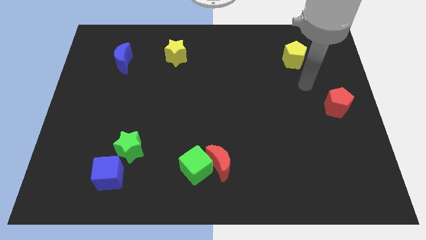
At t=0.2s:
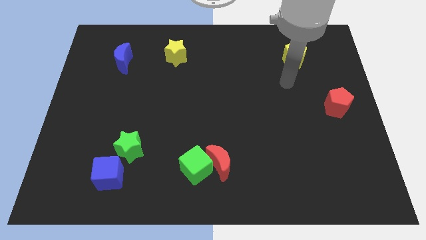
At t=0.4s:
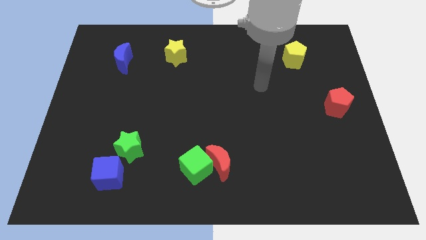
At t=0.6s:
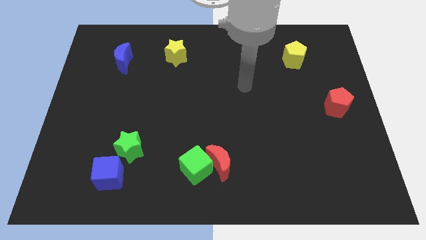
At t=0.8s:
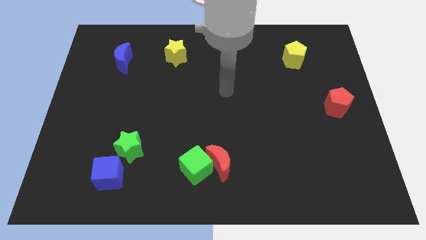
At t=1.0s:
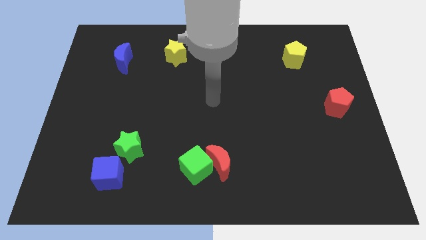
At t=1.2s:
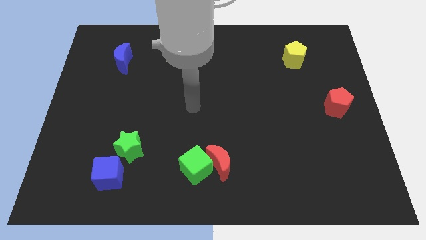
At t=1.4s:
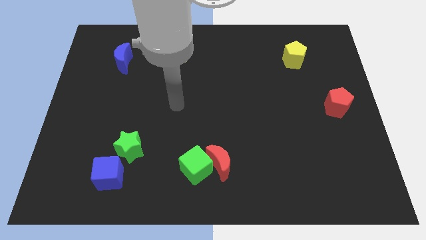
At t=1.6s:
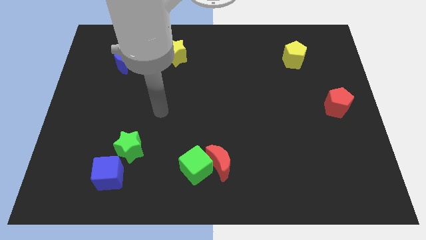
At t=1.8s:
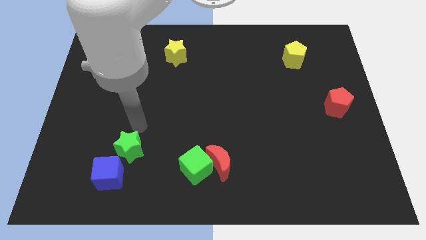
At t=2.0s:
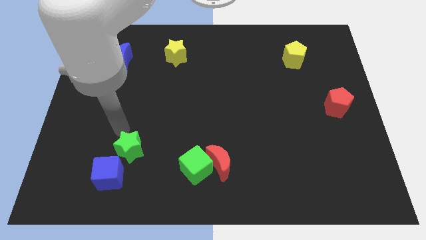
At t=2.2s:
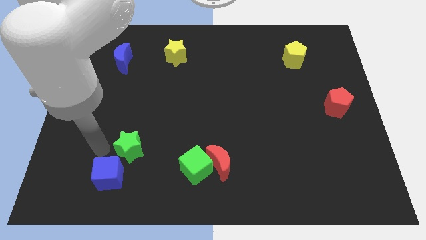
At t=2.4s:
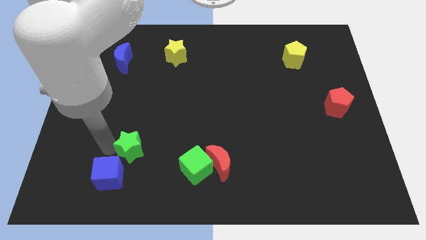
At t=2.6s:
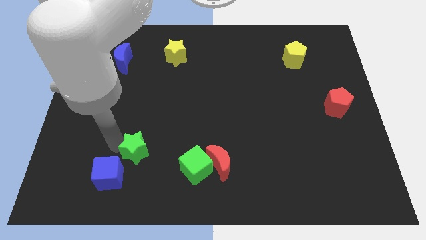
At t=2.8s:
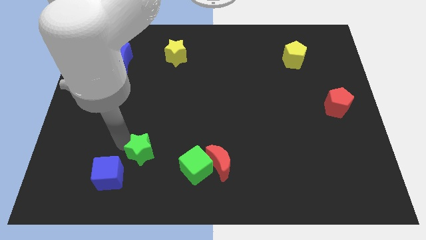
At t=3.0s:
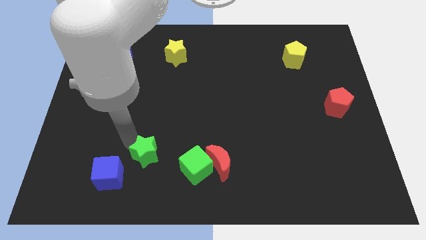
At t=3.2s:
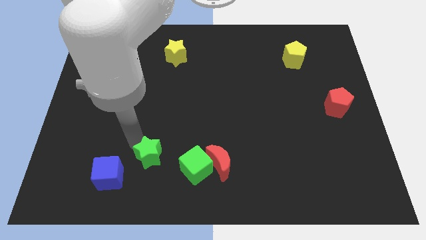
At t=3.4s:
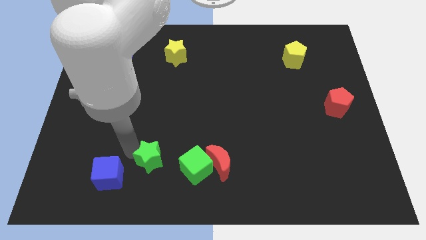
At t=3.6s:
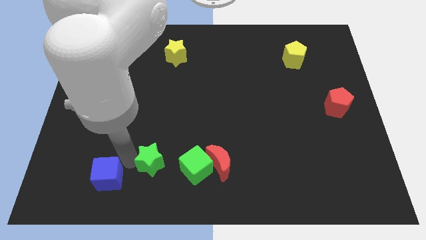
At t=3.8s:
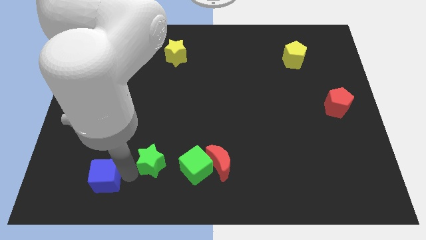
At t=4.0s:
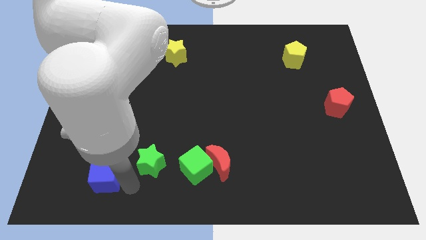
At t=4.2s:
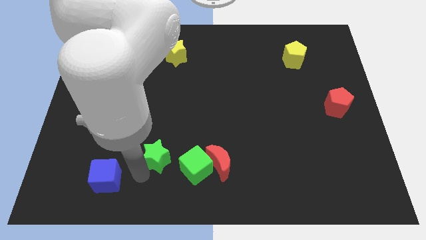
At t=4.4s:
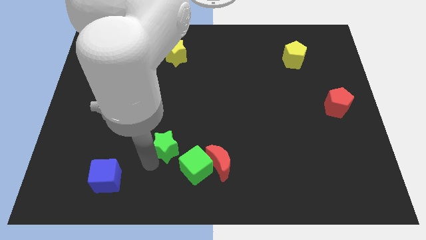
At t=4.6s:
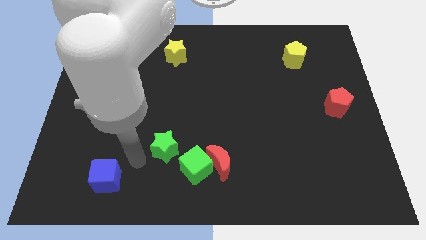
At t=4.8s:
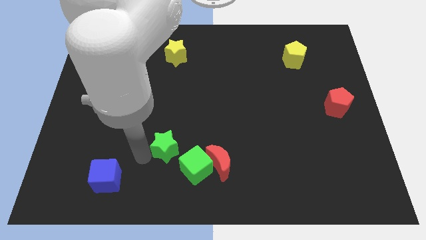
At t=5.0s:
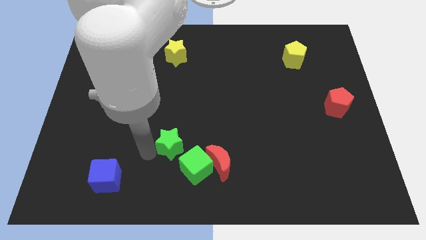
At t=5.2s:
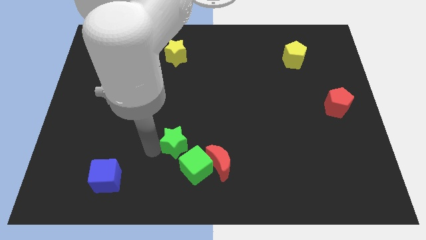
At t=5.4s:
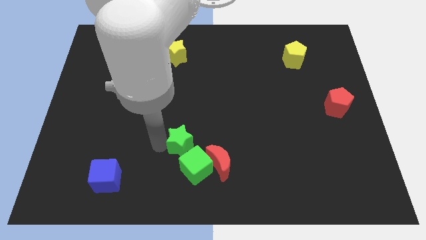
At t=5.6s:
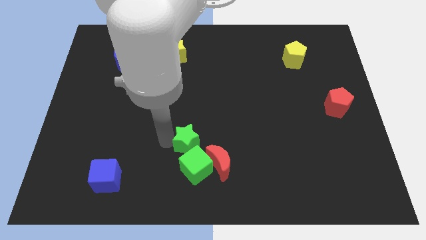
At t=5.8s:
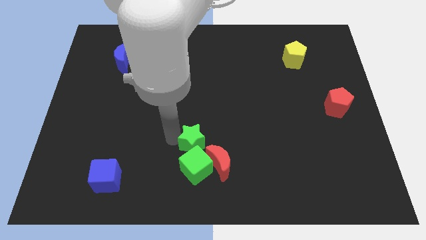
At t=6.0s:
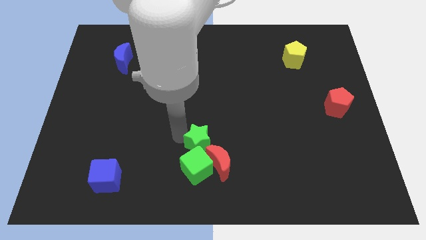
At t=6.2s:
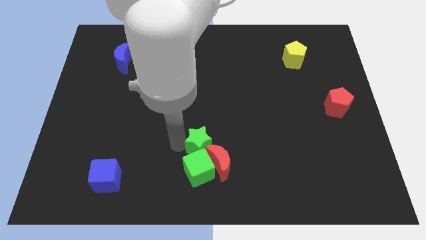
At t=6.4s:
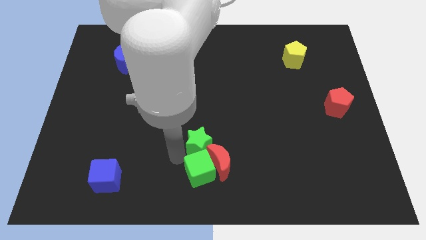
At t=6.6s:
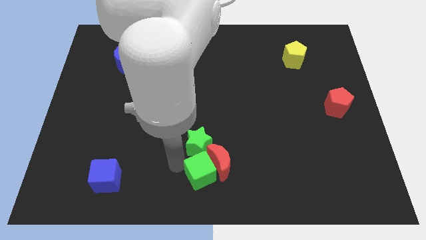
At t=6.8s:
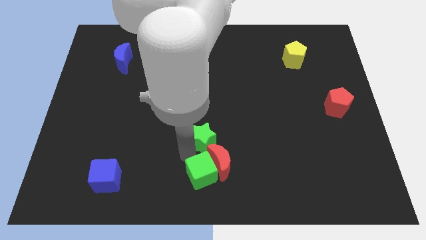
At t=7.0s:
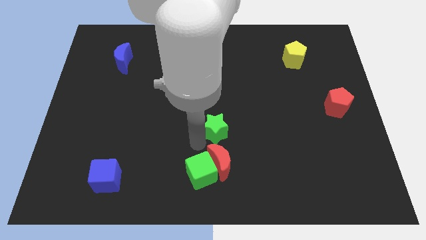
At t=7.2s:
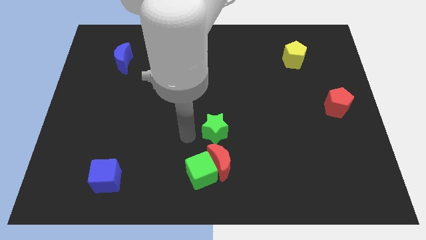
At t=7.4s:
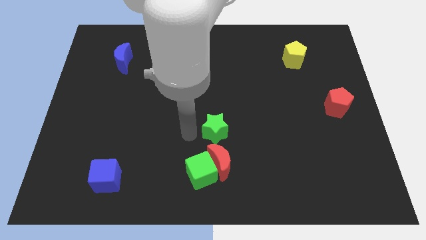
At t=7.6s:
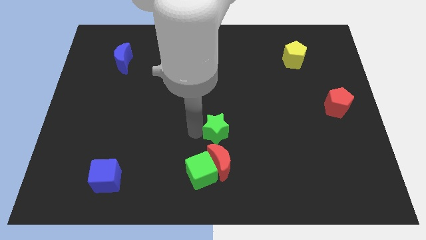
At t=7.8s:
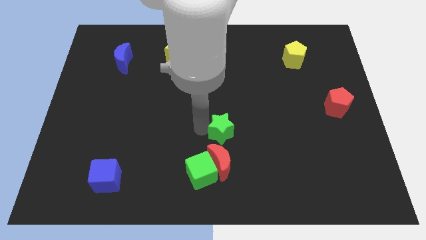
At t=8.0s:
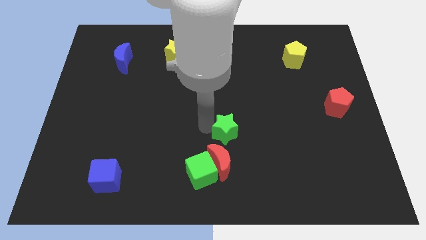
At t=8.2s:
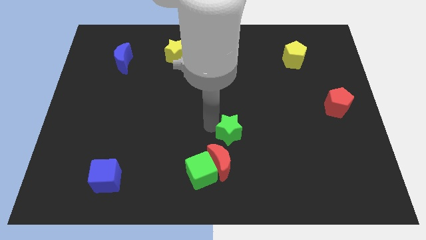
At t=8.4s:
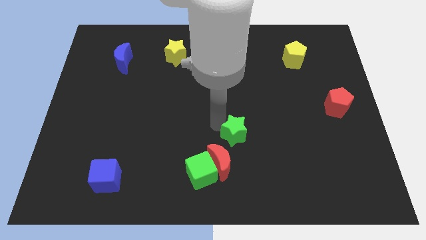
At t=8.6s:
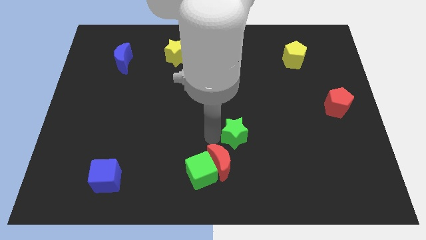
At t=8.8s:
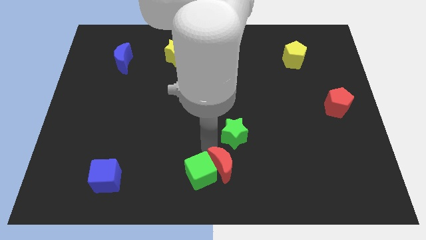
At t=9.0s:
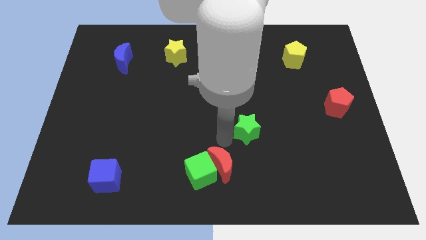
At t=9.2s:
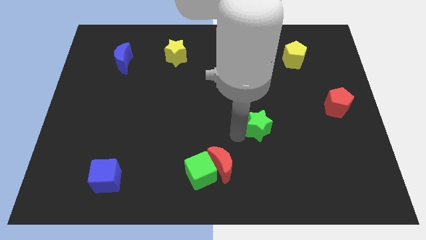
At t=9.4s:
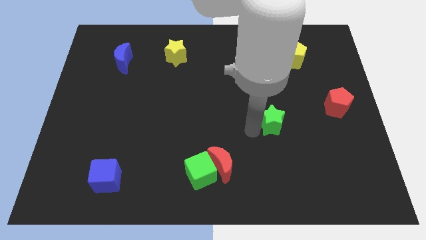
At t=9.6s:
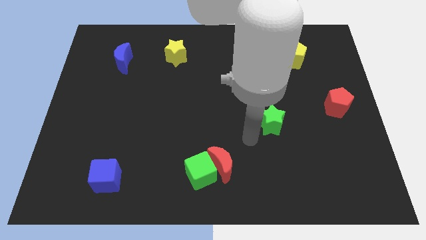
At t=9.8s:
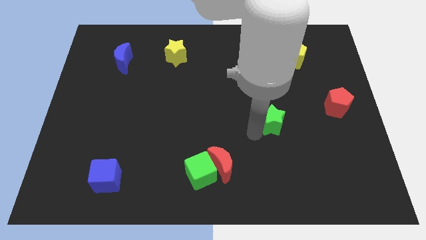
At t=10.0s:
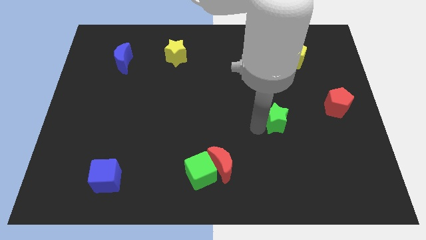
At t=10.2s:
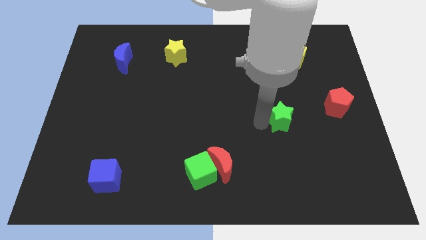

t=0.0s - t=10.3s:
push the green star to the left of the red pentagon

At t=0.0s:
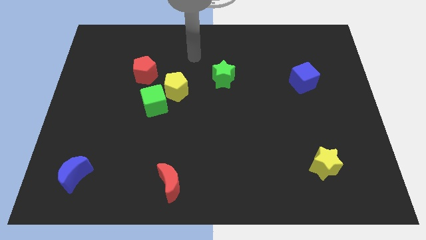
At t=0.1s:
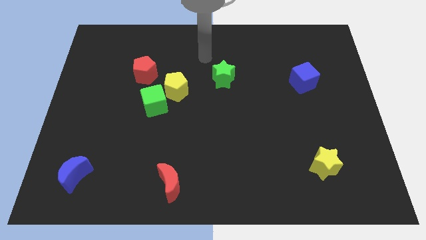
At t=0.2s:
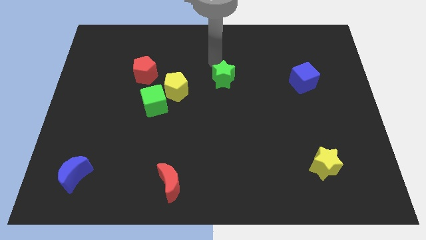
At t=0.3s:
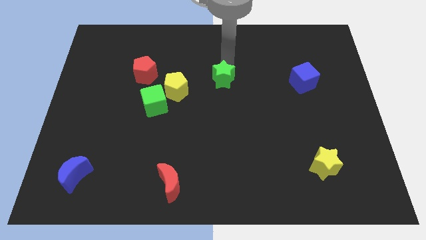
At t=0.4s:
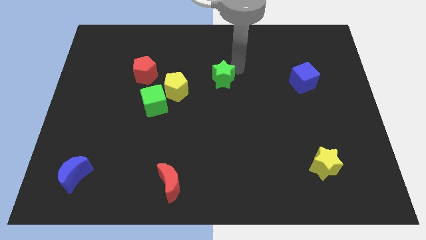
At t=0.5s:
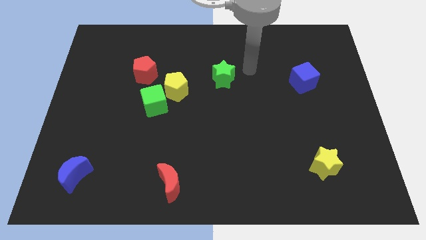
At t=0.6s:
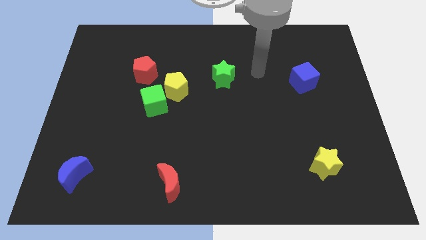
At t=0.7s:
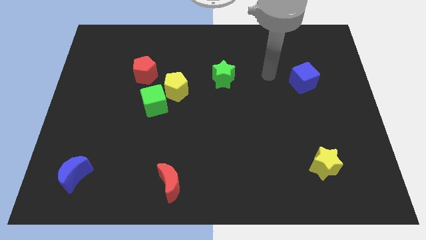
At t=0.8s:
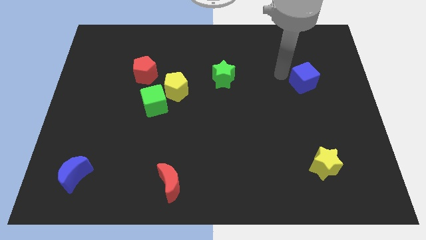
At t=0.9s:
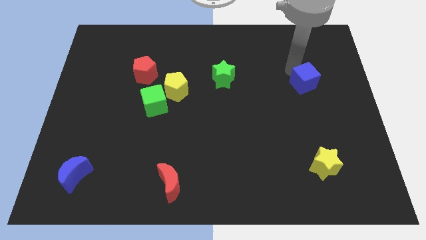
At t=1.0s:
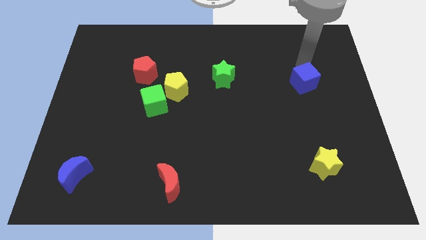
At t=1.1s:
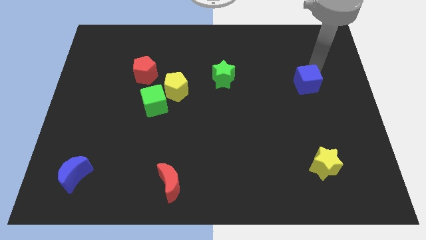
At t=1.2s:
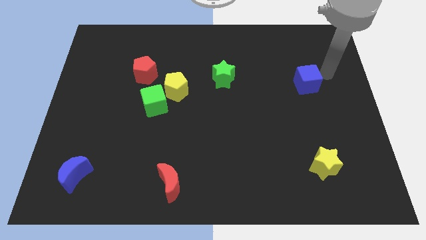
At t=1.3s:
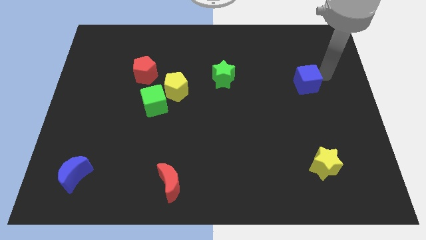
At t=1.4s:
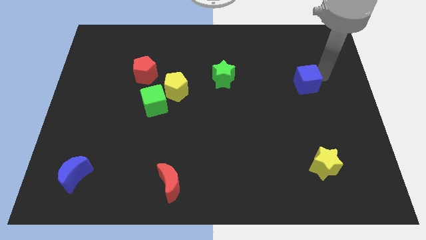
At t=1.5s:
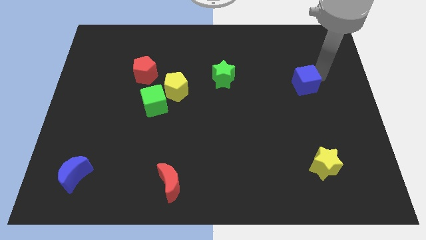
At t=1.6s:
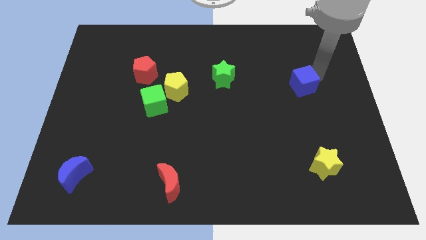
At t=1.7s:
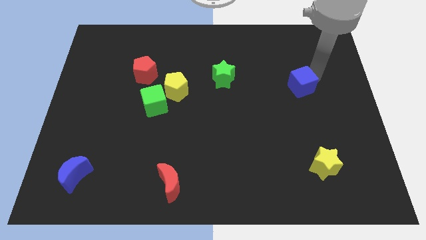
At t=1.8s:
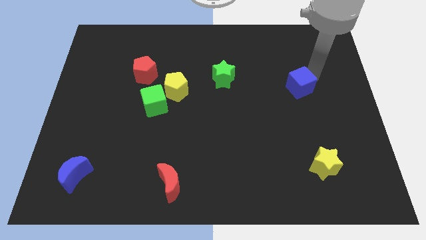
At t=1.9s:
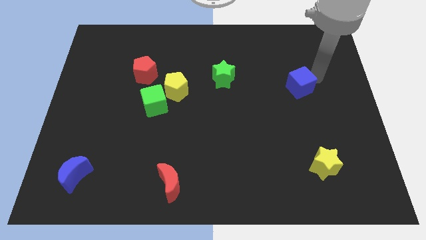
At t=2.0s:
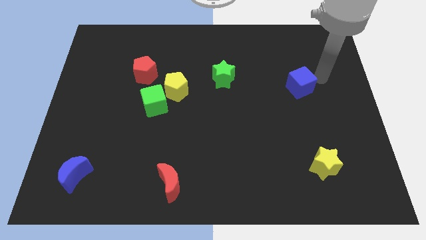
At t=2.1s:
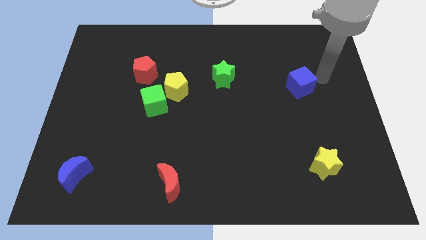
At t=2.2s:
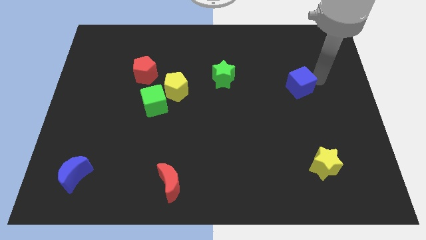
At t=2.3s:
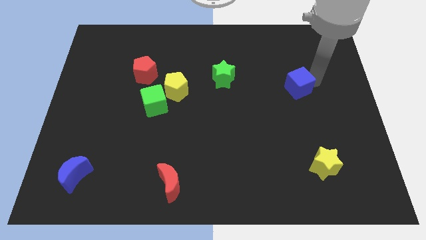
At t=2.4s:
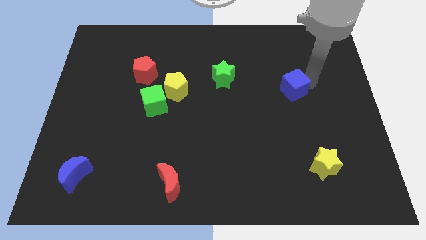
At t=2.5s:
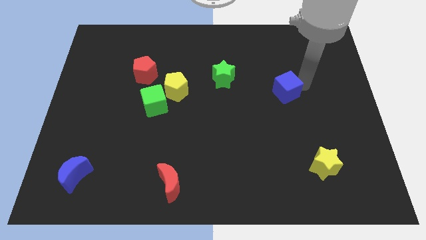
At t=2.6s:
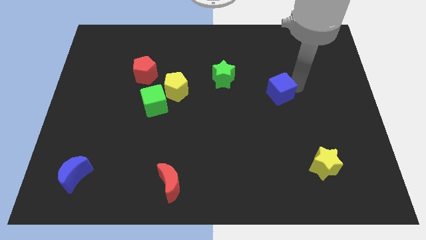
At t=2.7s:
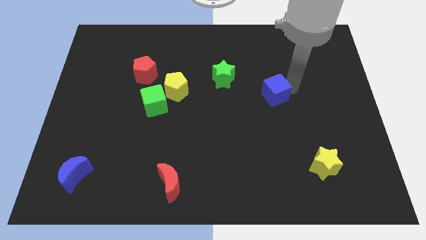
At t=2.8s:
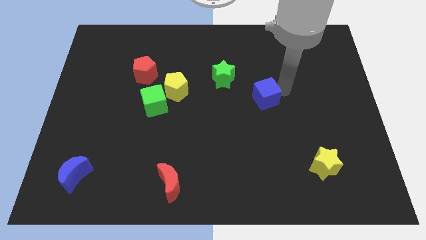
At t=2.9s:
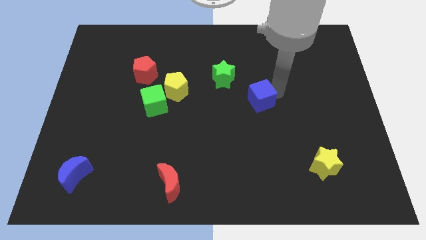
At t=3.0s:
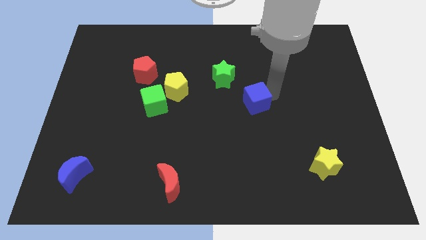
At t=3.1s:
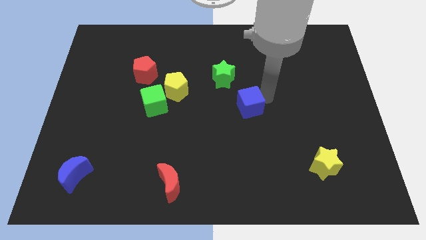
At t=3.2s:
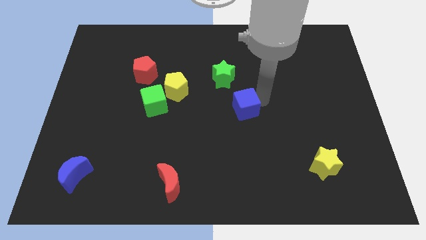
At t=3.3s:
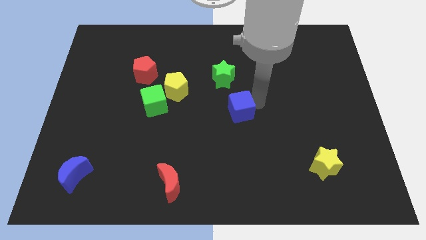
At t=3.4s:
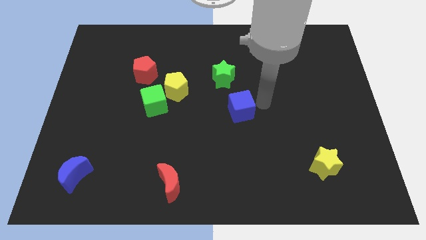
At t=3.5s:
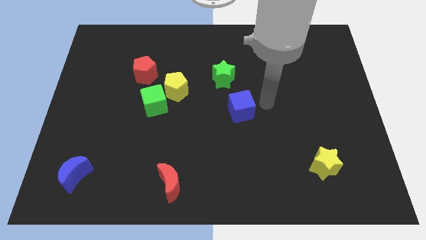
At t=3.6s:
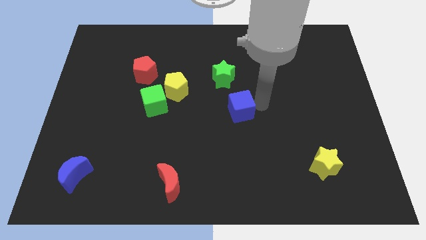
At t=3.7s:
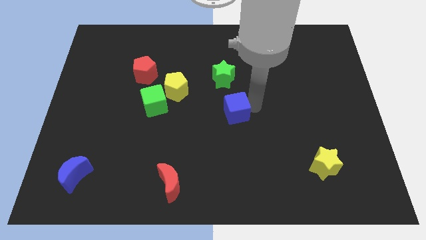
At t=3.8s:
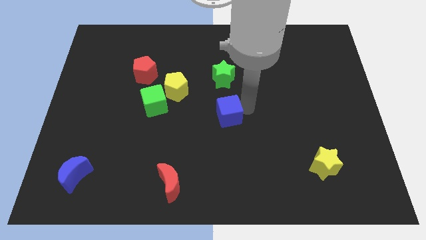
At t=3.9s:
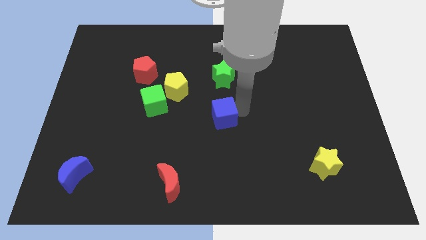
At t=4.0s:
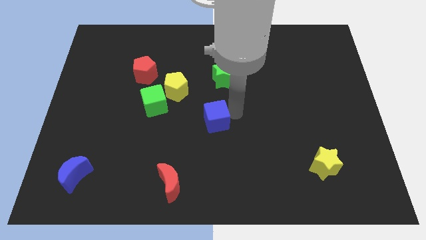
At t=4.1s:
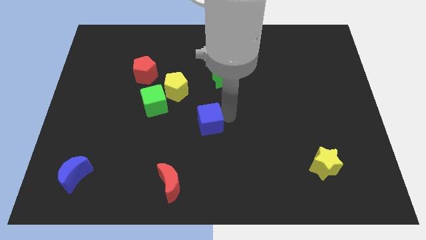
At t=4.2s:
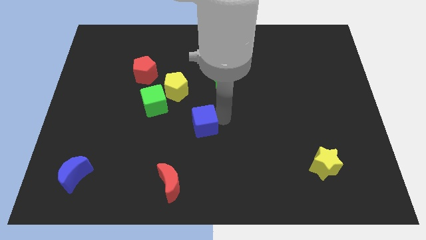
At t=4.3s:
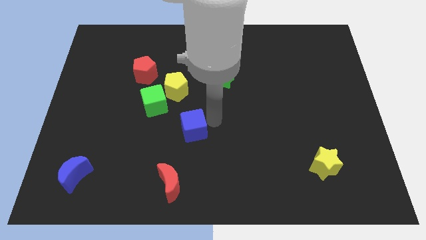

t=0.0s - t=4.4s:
push the blue cube to the top of the red moon
